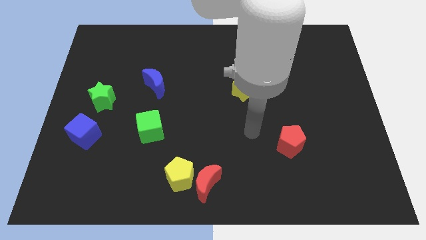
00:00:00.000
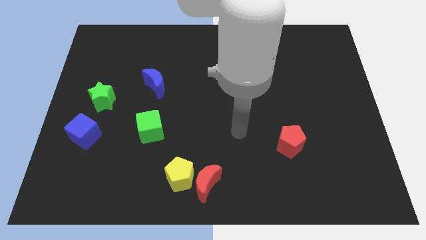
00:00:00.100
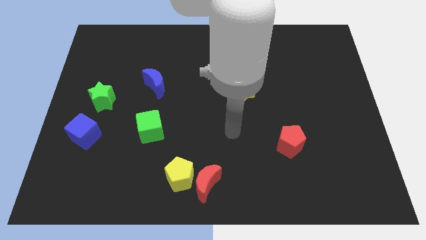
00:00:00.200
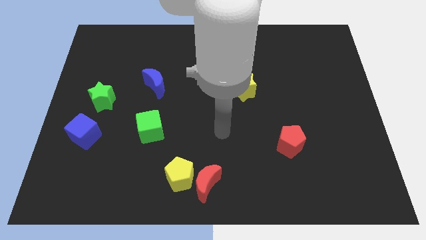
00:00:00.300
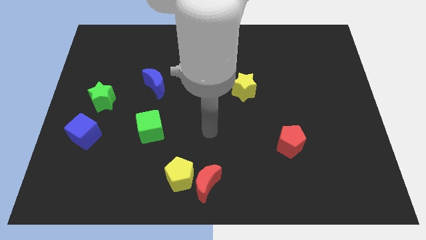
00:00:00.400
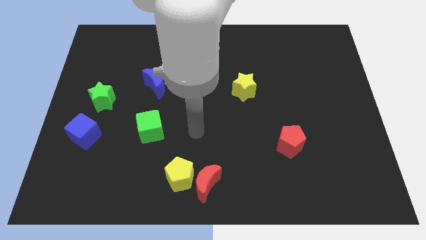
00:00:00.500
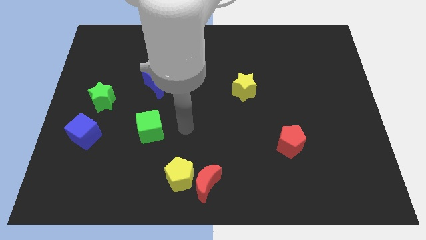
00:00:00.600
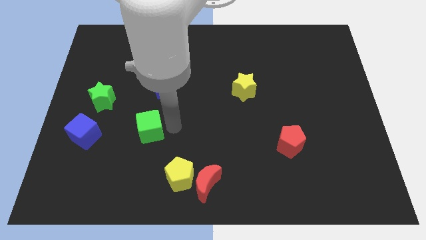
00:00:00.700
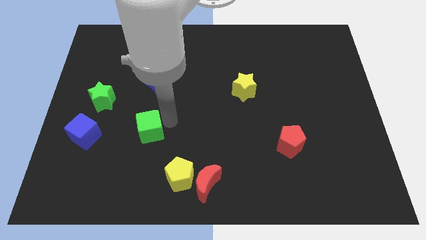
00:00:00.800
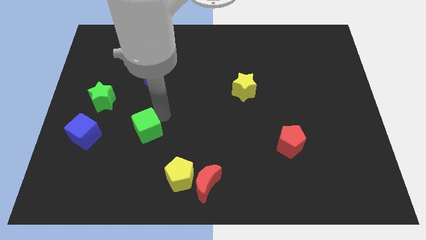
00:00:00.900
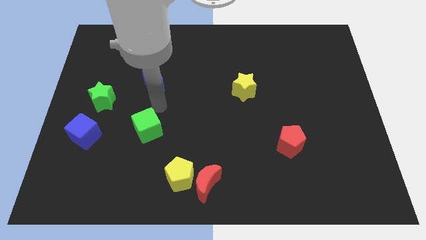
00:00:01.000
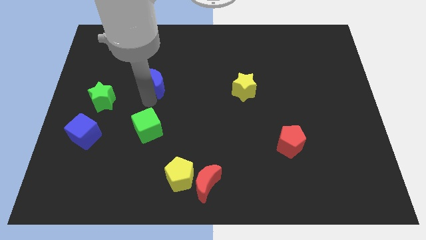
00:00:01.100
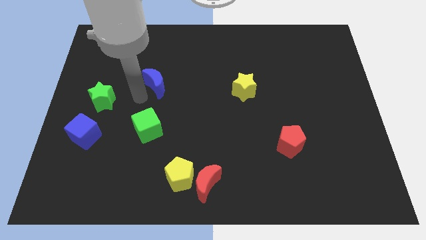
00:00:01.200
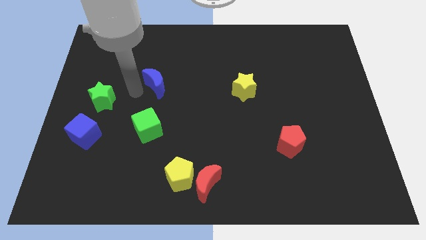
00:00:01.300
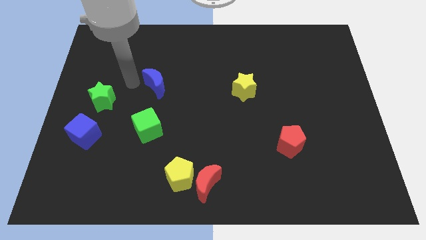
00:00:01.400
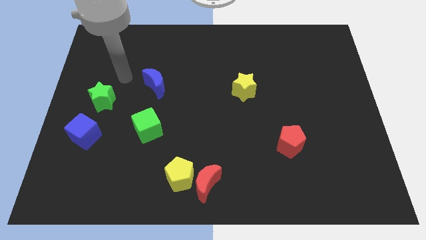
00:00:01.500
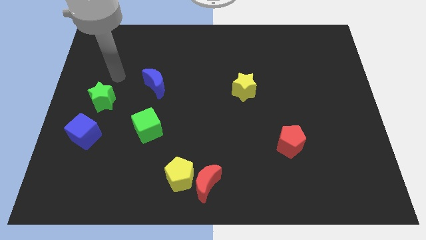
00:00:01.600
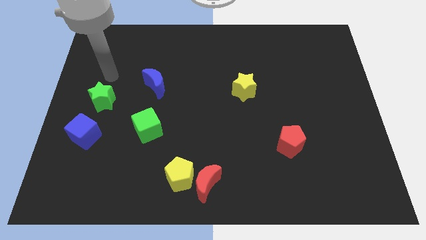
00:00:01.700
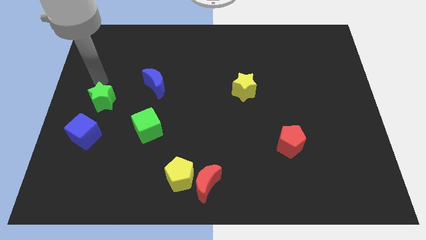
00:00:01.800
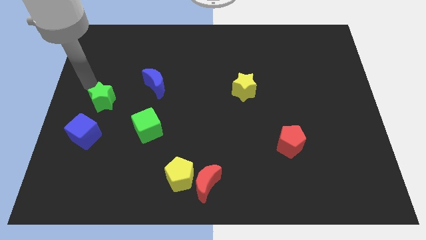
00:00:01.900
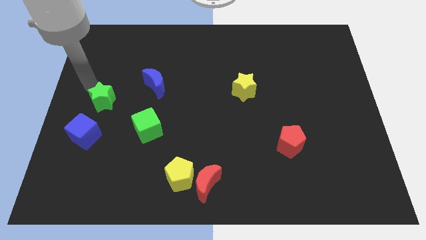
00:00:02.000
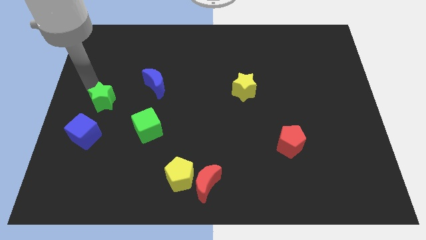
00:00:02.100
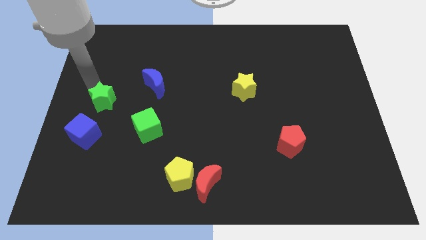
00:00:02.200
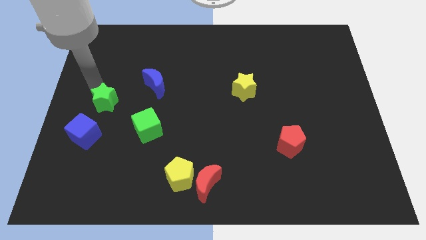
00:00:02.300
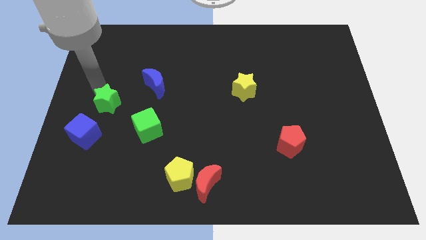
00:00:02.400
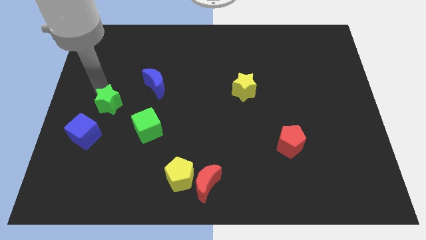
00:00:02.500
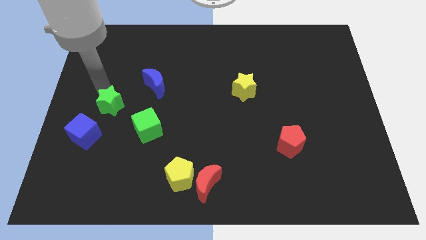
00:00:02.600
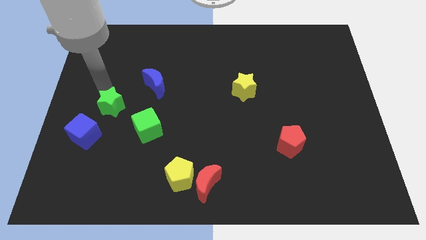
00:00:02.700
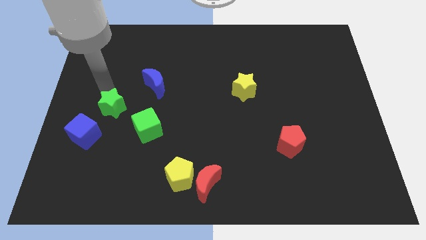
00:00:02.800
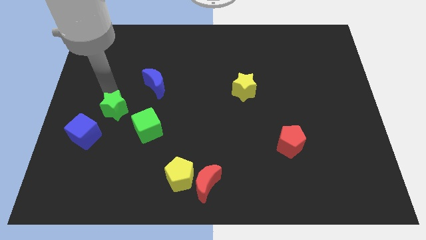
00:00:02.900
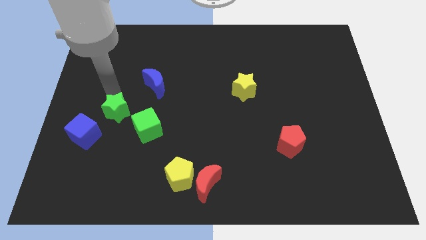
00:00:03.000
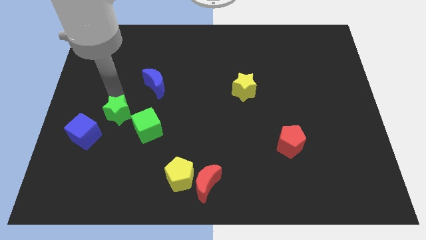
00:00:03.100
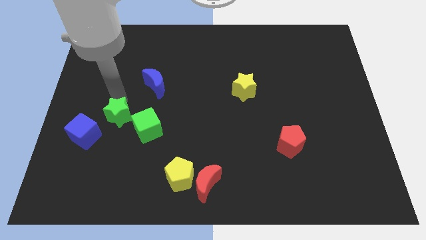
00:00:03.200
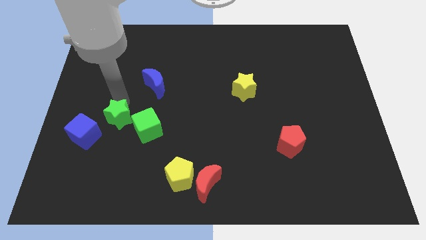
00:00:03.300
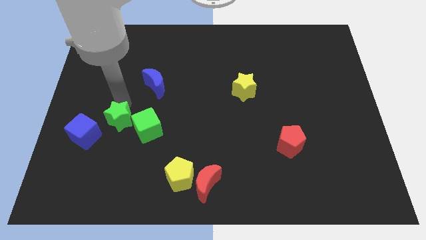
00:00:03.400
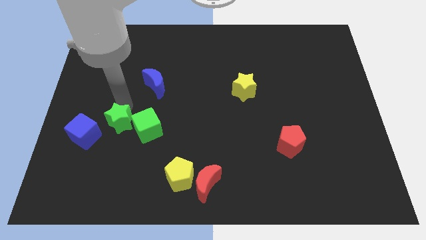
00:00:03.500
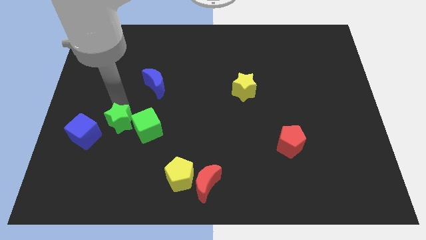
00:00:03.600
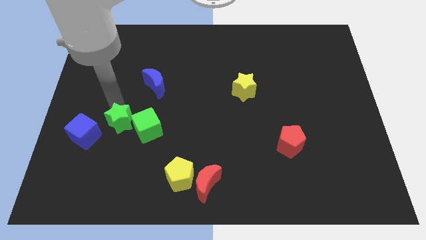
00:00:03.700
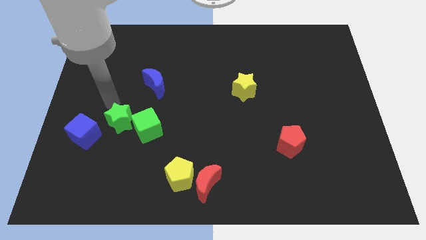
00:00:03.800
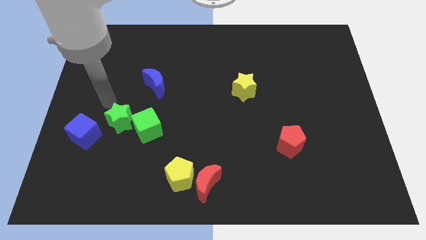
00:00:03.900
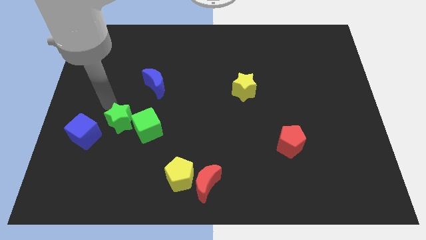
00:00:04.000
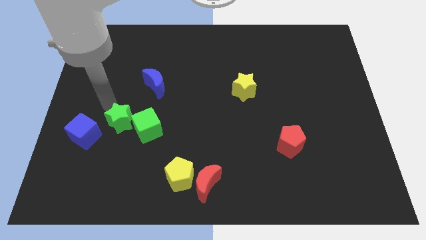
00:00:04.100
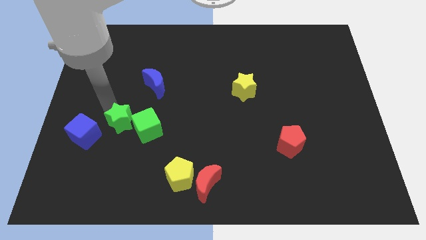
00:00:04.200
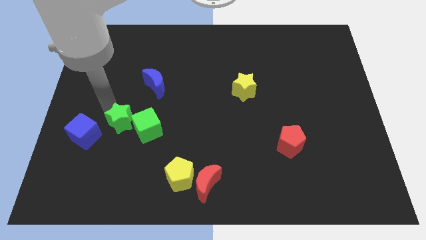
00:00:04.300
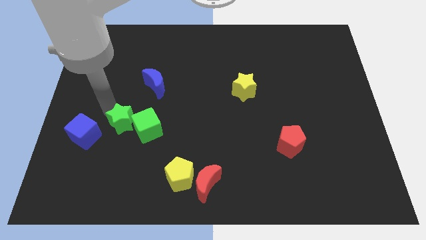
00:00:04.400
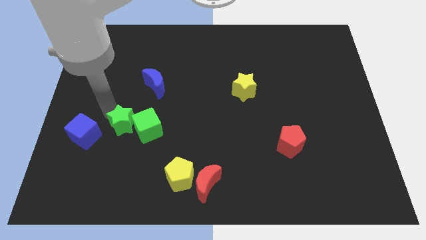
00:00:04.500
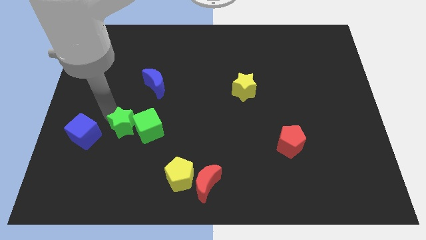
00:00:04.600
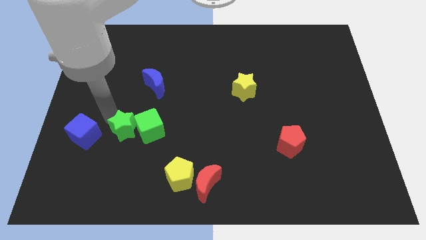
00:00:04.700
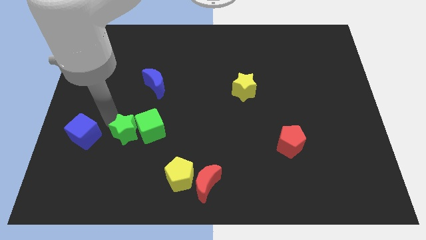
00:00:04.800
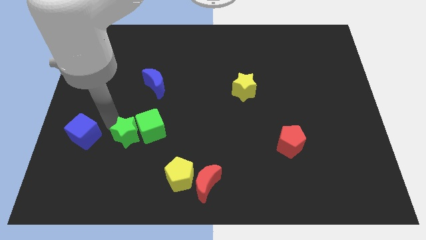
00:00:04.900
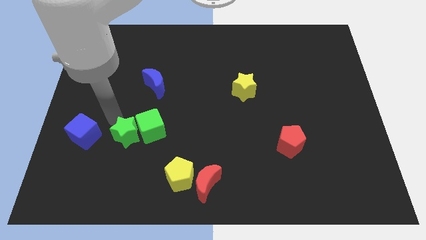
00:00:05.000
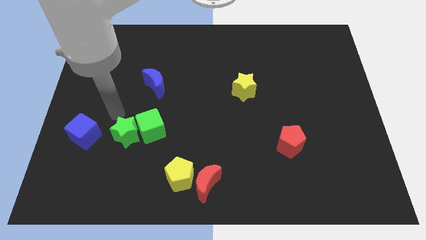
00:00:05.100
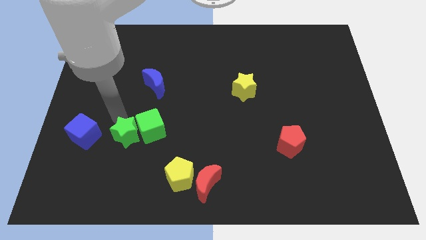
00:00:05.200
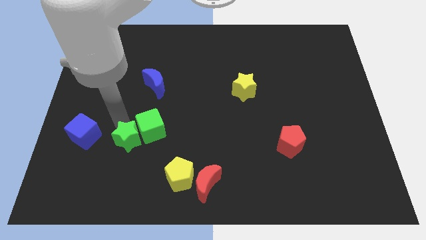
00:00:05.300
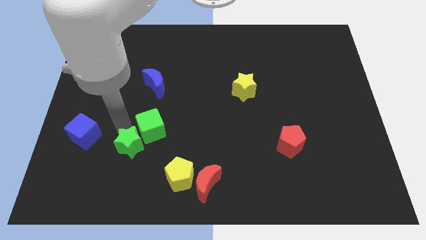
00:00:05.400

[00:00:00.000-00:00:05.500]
slide the green star to the bottom of the green cube

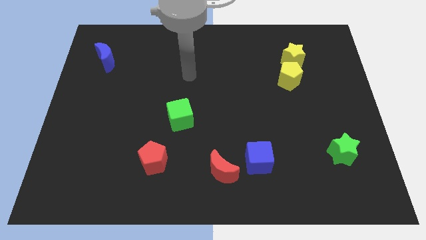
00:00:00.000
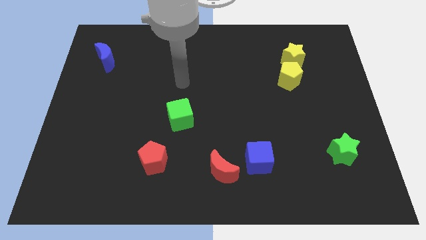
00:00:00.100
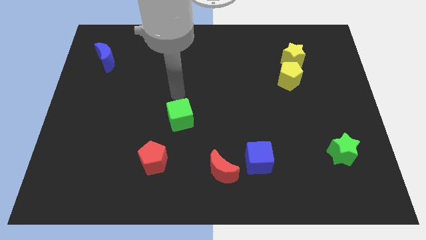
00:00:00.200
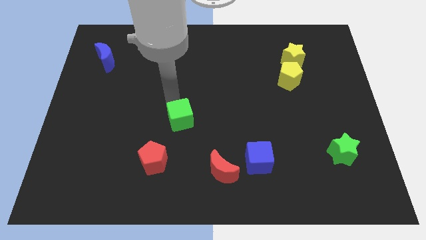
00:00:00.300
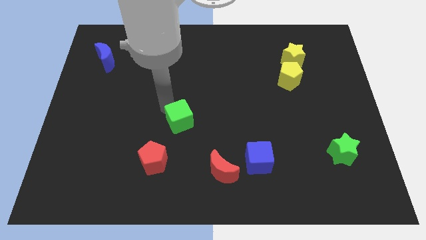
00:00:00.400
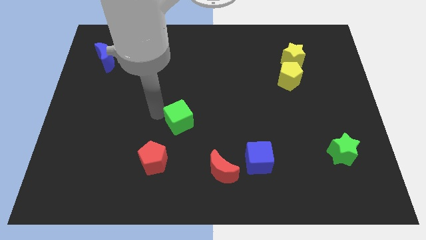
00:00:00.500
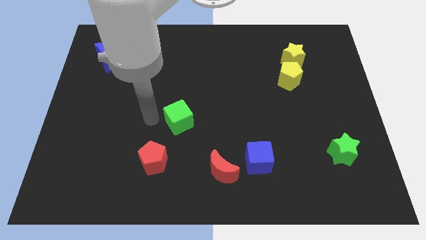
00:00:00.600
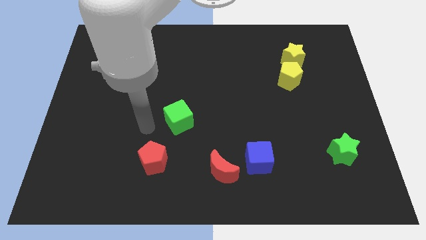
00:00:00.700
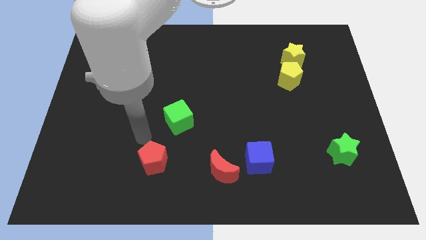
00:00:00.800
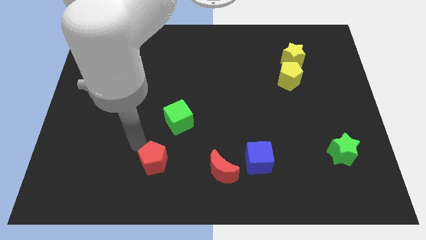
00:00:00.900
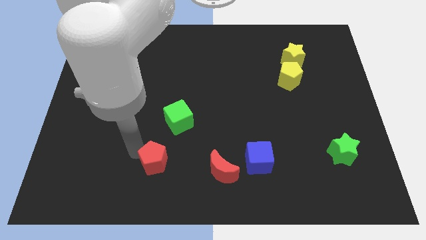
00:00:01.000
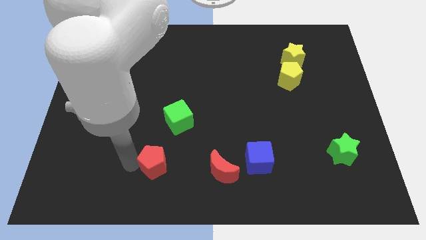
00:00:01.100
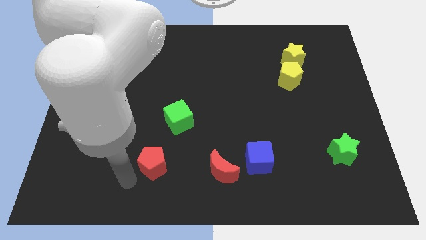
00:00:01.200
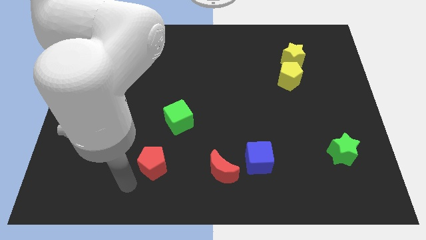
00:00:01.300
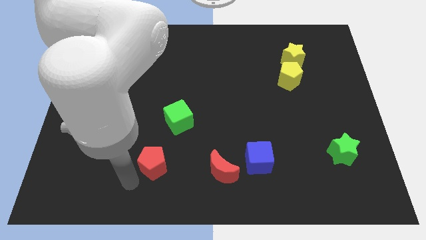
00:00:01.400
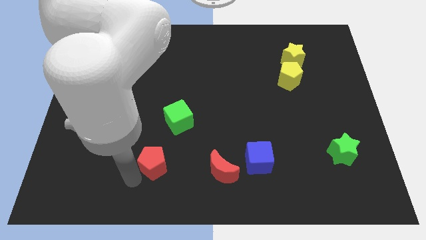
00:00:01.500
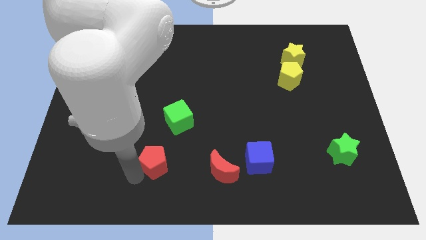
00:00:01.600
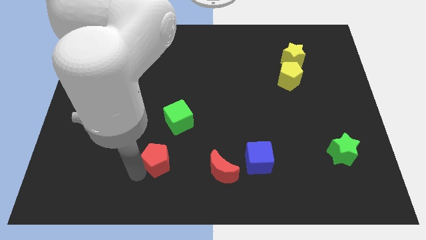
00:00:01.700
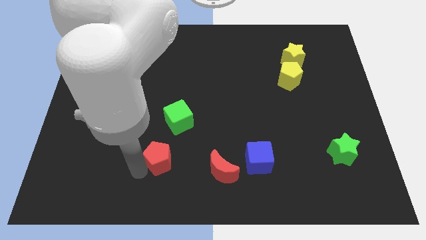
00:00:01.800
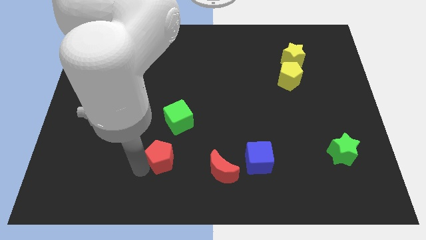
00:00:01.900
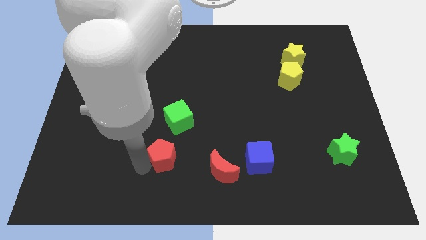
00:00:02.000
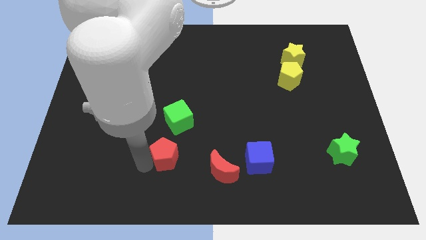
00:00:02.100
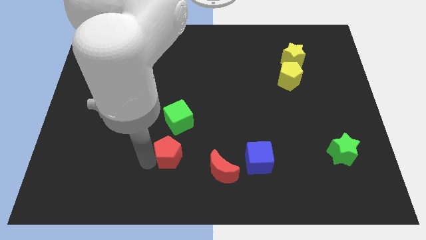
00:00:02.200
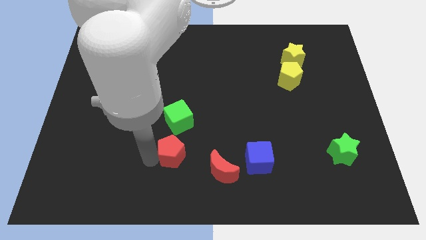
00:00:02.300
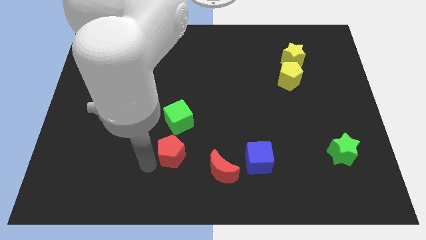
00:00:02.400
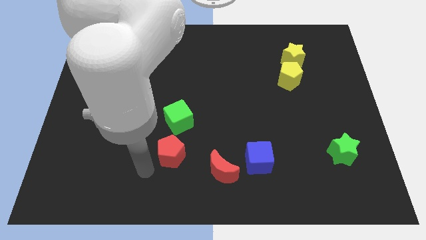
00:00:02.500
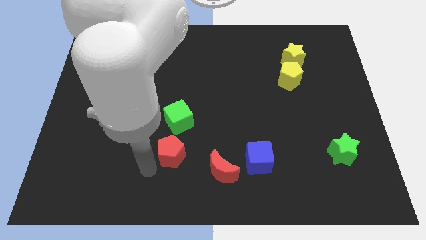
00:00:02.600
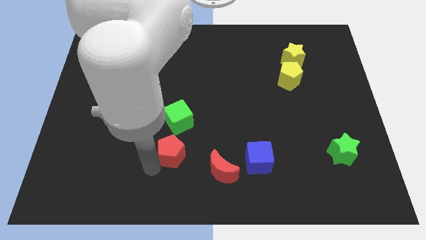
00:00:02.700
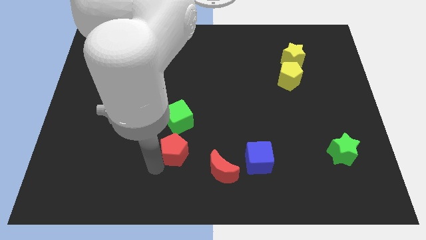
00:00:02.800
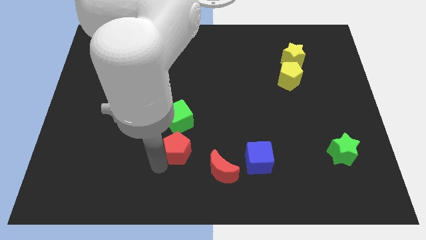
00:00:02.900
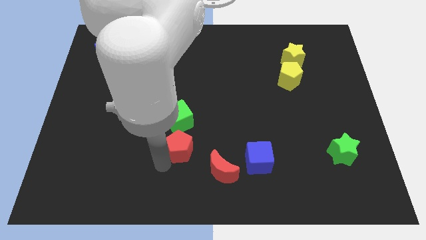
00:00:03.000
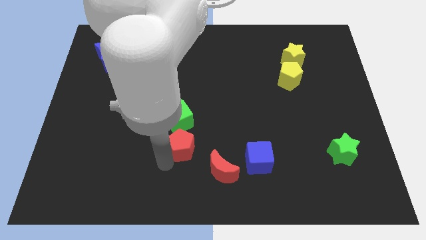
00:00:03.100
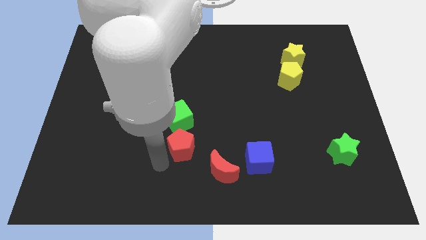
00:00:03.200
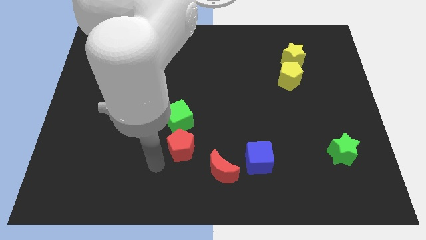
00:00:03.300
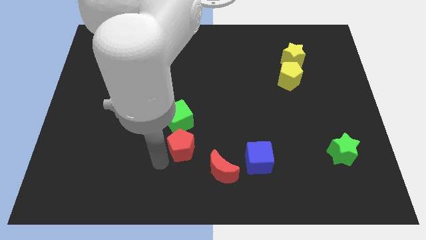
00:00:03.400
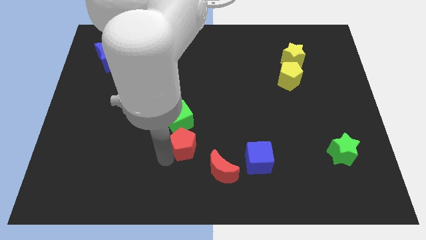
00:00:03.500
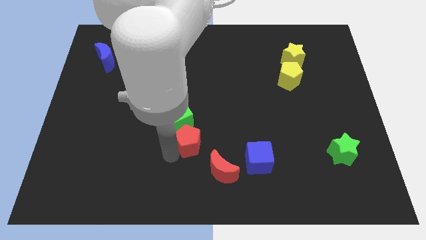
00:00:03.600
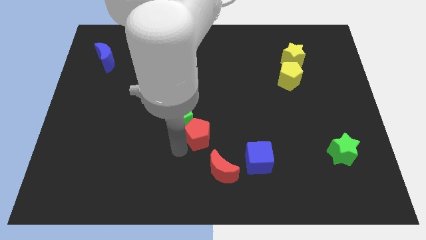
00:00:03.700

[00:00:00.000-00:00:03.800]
move the red pentagon to the right of the green cube
